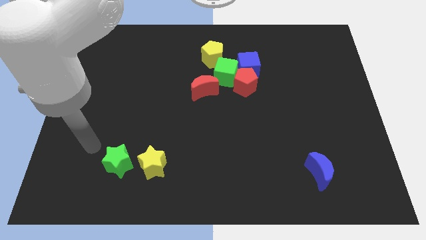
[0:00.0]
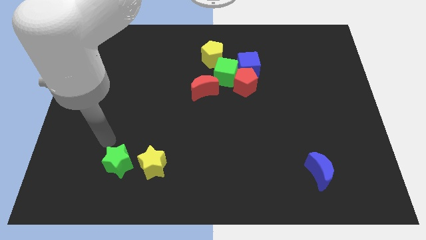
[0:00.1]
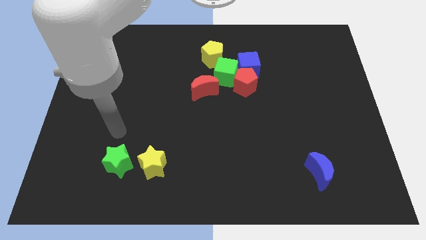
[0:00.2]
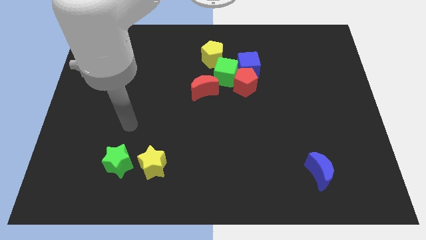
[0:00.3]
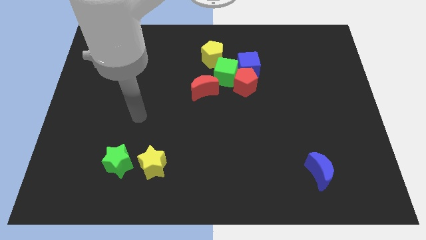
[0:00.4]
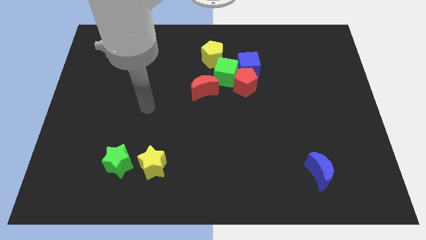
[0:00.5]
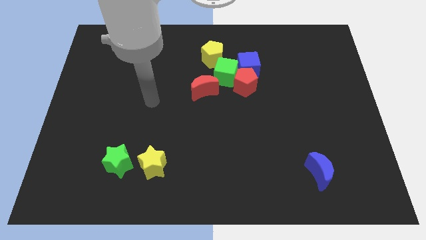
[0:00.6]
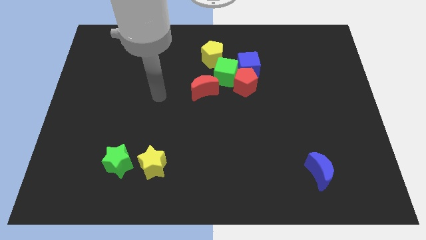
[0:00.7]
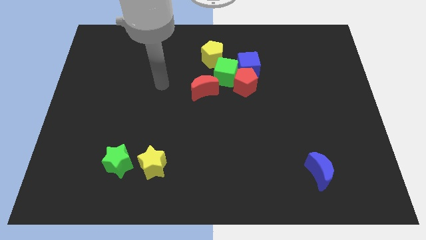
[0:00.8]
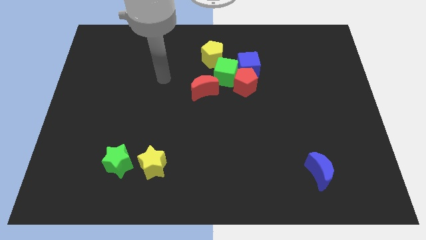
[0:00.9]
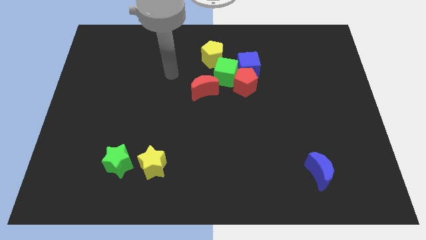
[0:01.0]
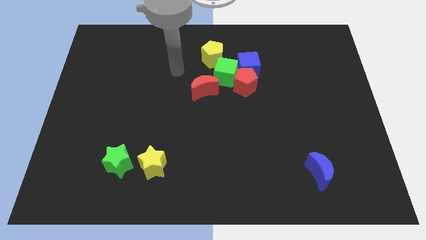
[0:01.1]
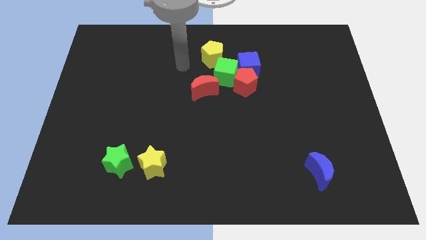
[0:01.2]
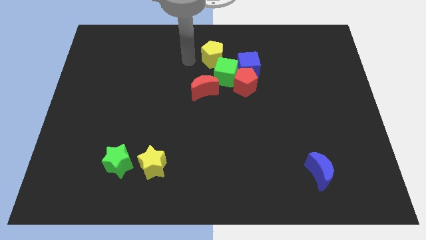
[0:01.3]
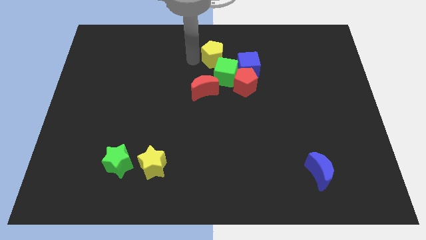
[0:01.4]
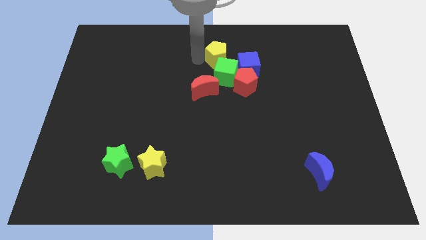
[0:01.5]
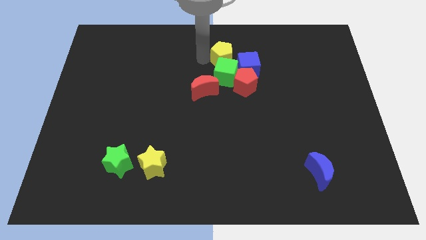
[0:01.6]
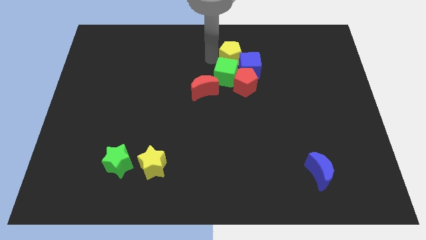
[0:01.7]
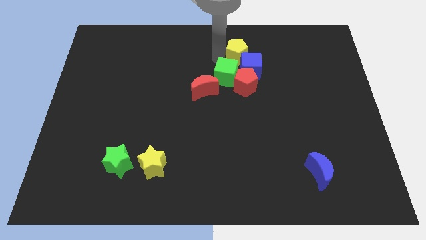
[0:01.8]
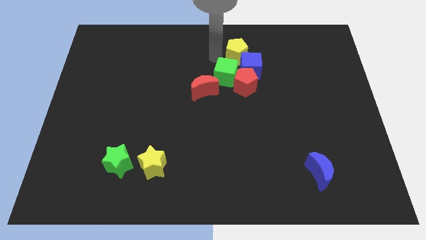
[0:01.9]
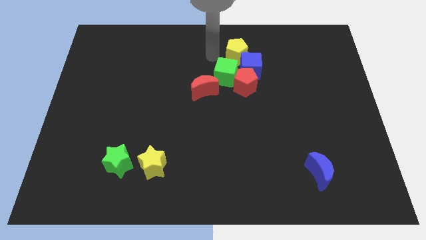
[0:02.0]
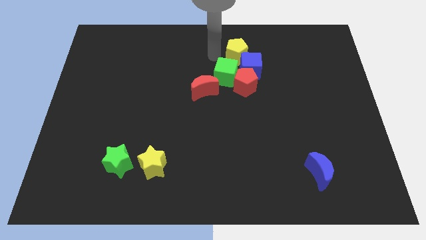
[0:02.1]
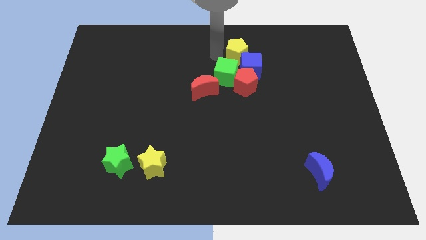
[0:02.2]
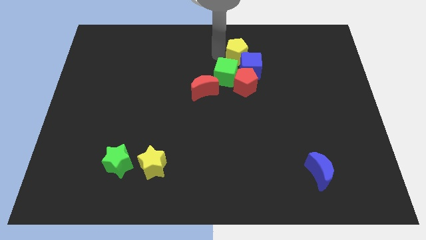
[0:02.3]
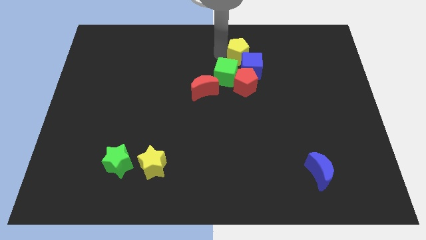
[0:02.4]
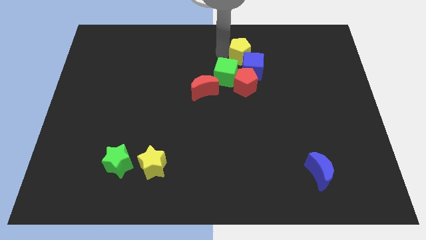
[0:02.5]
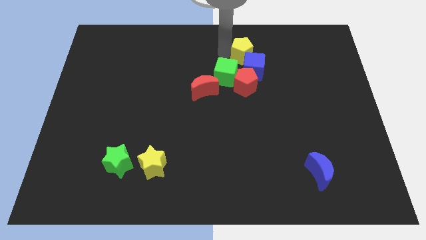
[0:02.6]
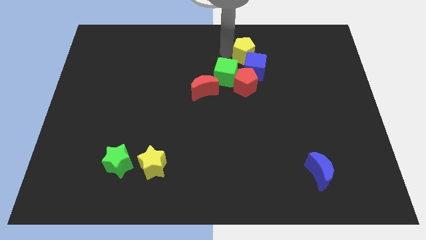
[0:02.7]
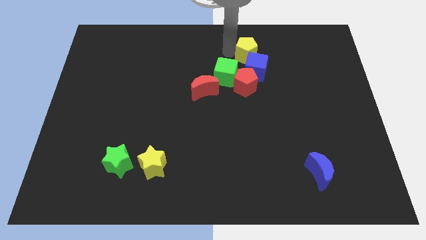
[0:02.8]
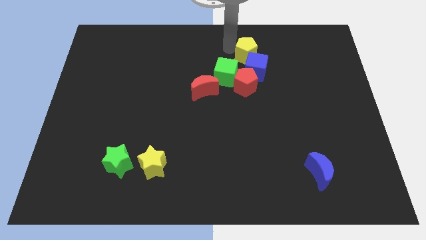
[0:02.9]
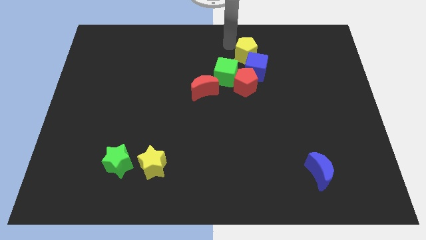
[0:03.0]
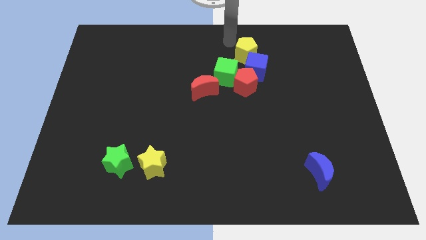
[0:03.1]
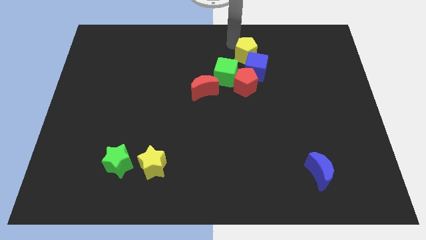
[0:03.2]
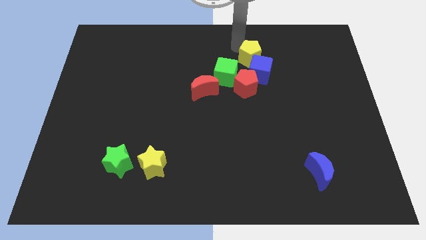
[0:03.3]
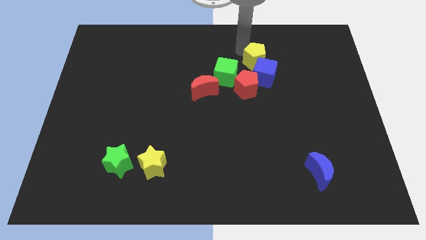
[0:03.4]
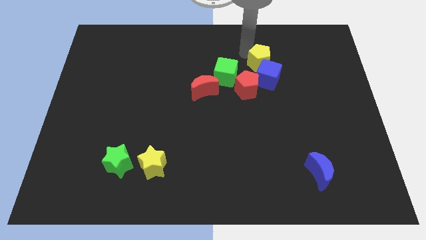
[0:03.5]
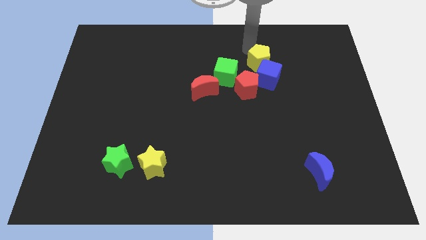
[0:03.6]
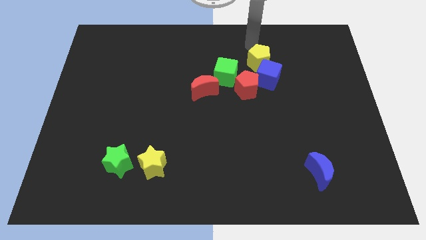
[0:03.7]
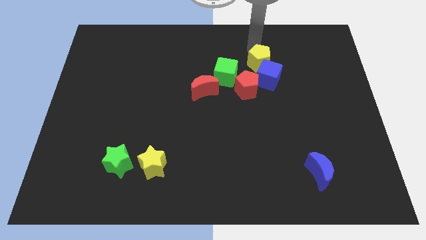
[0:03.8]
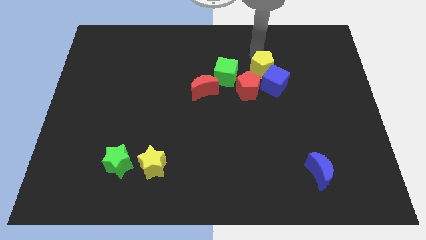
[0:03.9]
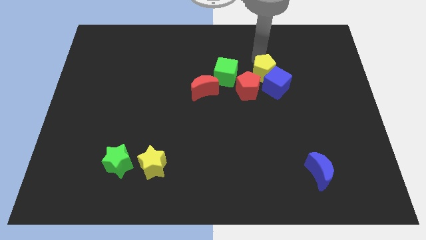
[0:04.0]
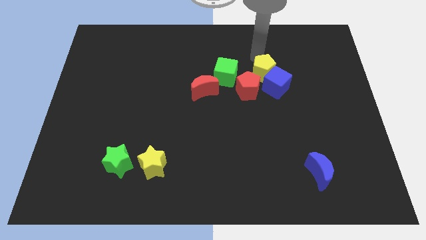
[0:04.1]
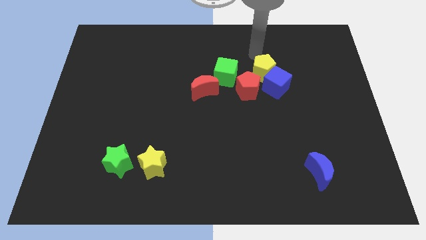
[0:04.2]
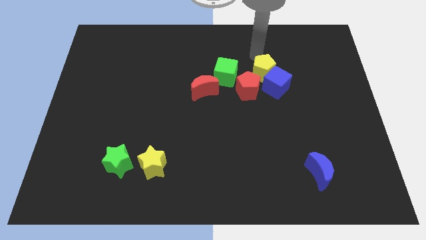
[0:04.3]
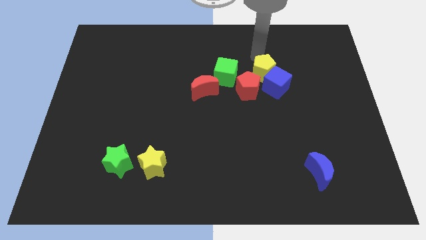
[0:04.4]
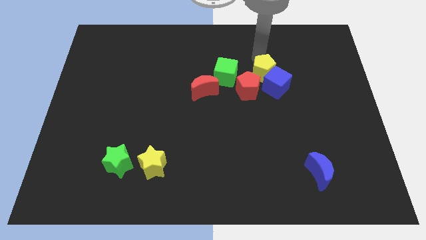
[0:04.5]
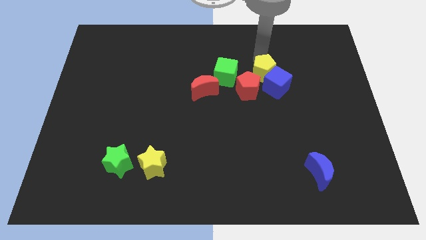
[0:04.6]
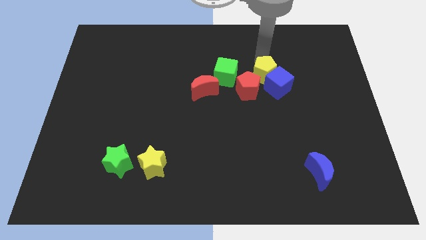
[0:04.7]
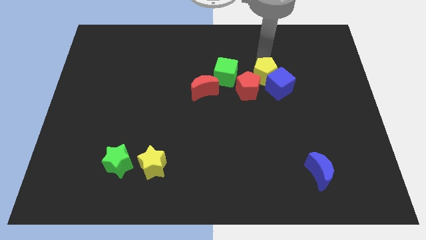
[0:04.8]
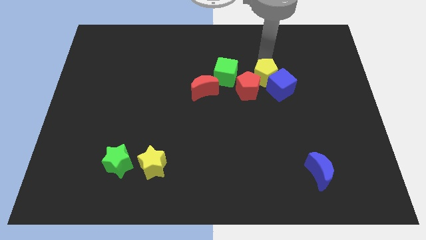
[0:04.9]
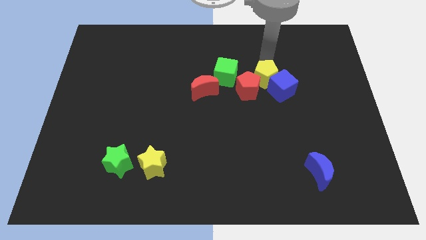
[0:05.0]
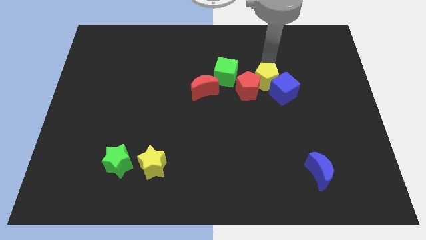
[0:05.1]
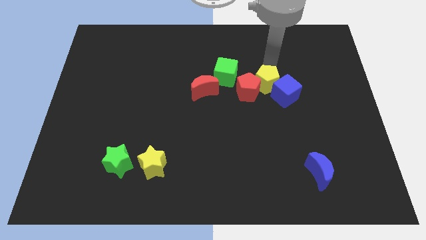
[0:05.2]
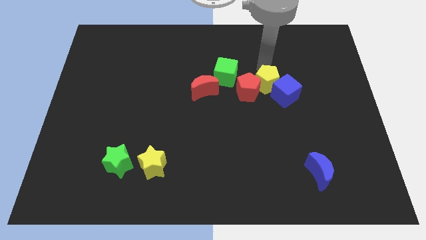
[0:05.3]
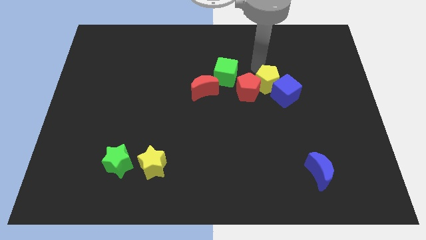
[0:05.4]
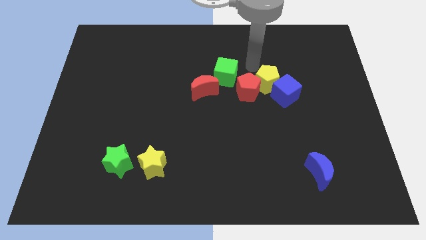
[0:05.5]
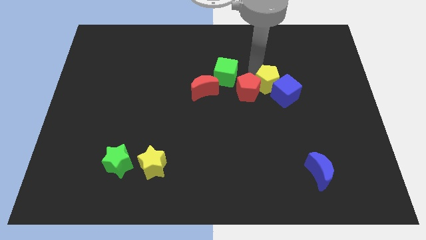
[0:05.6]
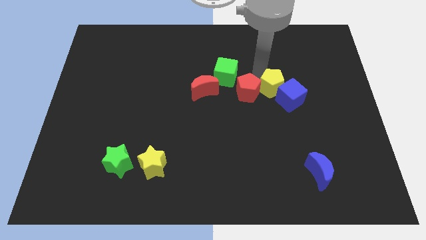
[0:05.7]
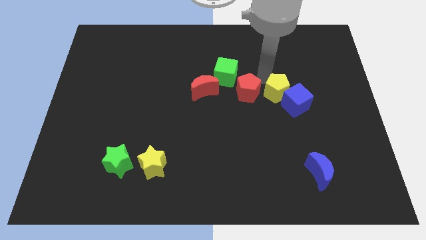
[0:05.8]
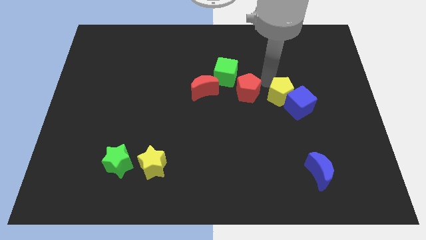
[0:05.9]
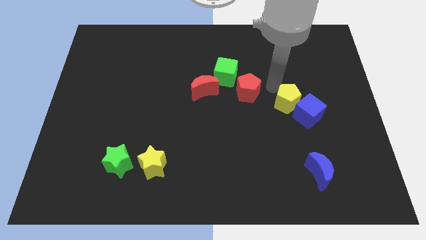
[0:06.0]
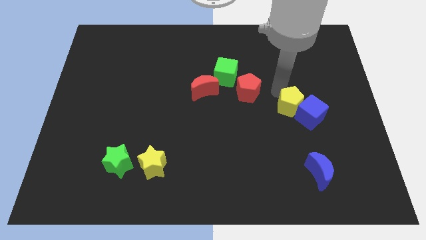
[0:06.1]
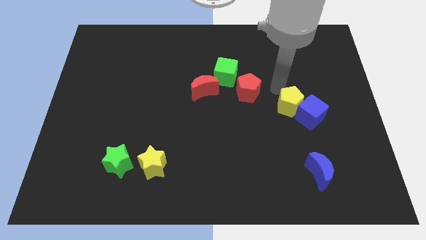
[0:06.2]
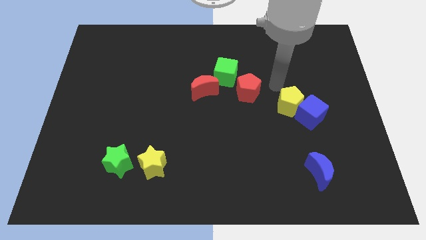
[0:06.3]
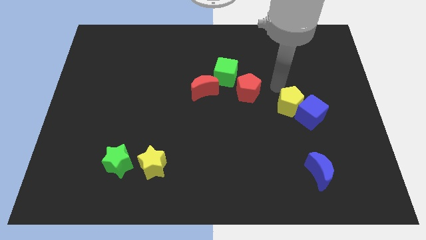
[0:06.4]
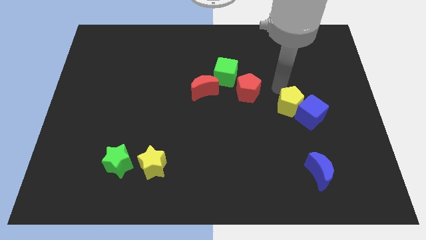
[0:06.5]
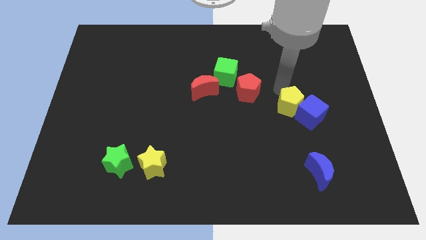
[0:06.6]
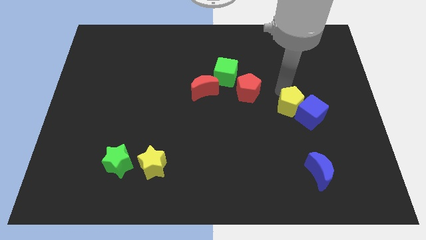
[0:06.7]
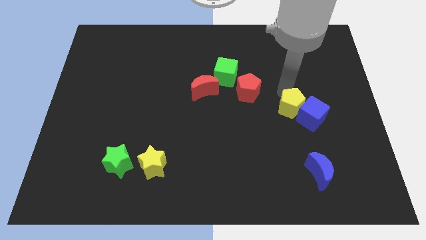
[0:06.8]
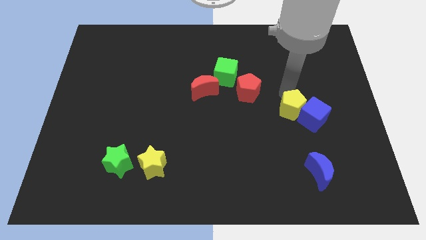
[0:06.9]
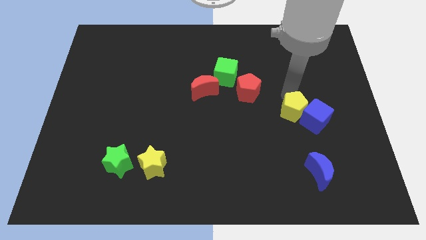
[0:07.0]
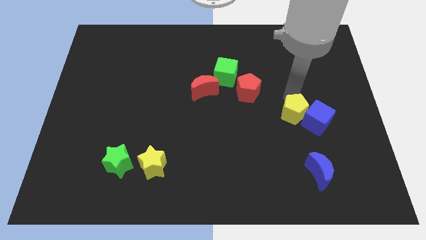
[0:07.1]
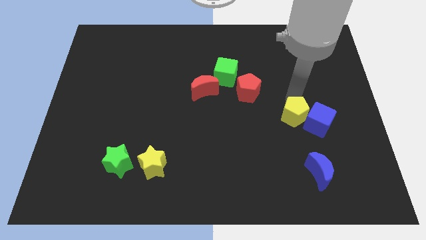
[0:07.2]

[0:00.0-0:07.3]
move the yellow pentagon to the top side of the blue moon
